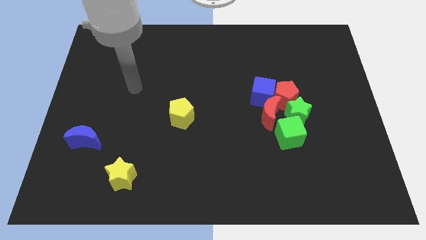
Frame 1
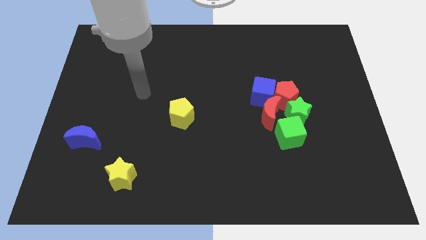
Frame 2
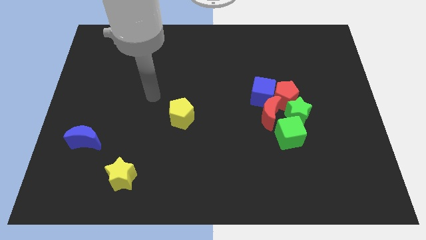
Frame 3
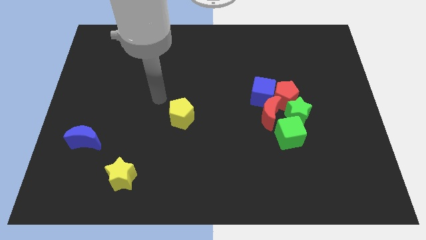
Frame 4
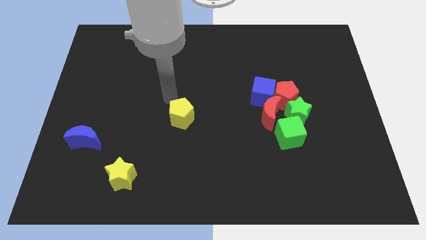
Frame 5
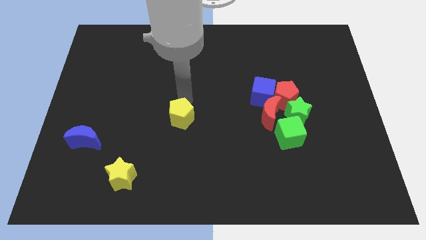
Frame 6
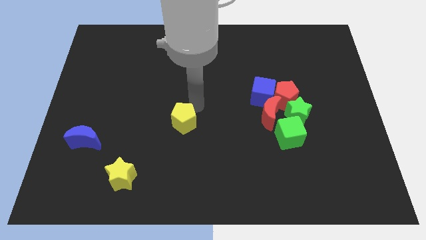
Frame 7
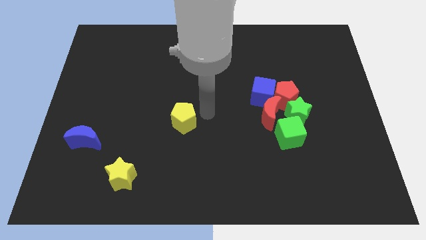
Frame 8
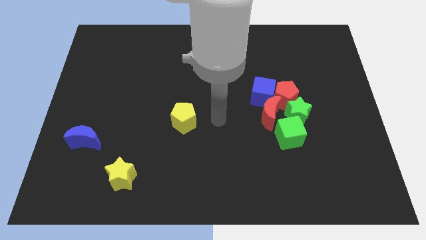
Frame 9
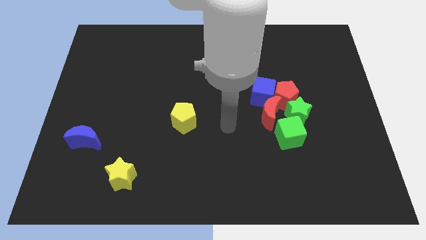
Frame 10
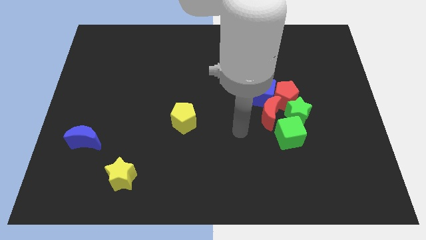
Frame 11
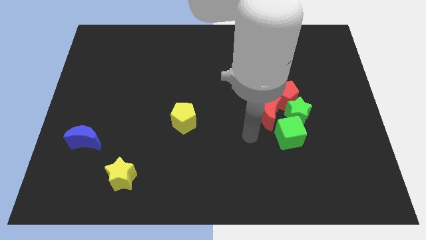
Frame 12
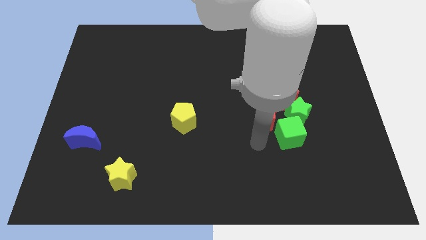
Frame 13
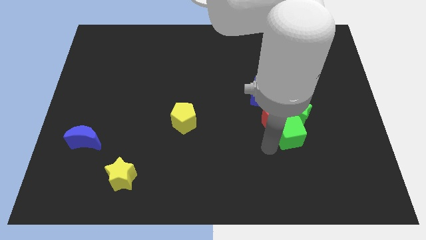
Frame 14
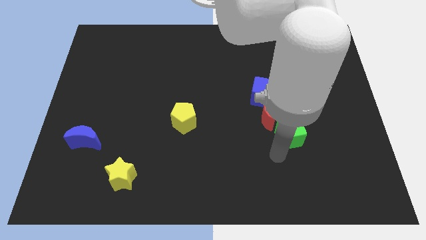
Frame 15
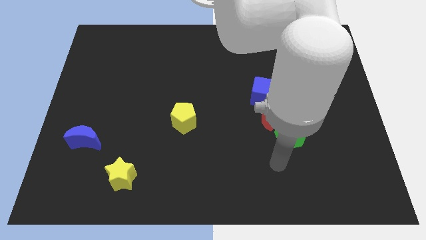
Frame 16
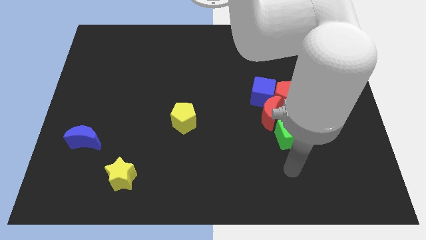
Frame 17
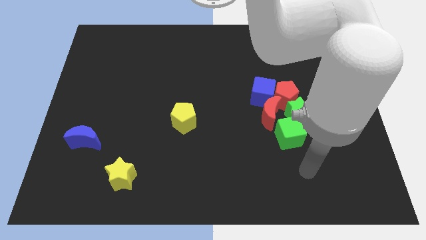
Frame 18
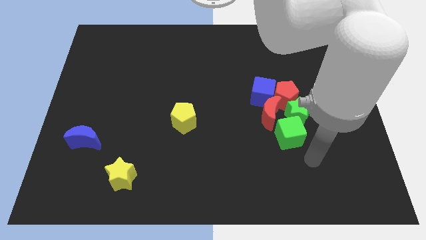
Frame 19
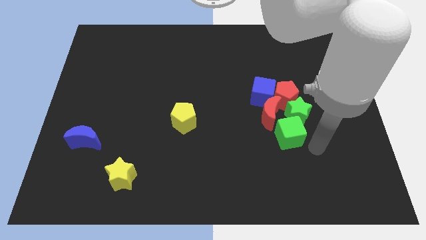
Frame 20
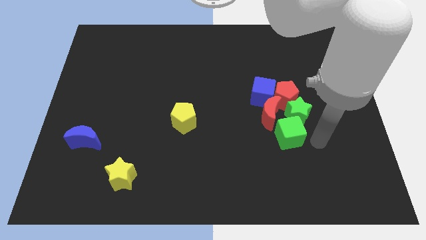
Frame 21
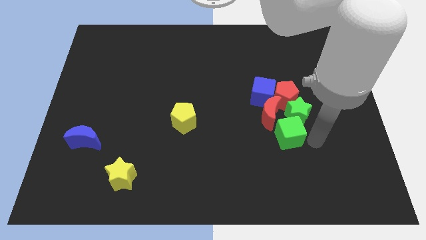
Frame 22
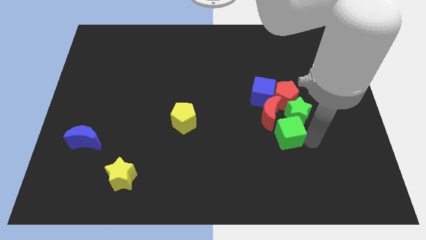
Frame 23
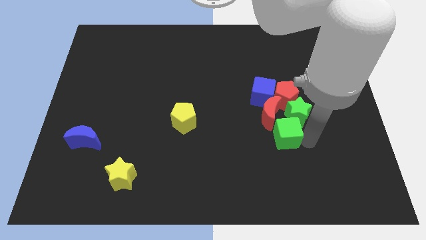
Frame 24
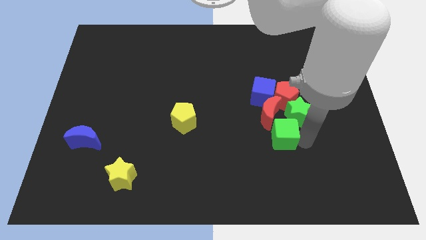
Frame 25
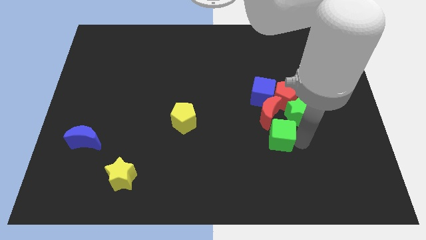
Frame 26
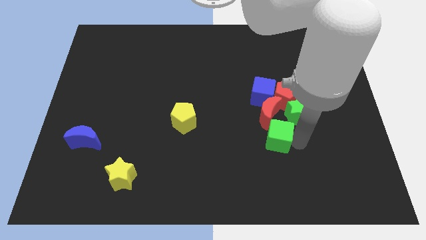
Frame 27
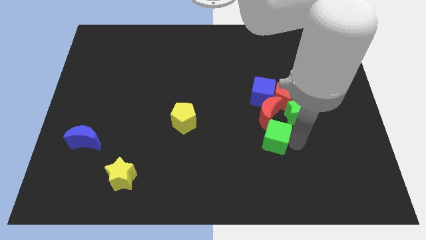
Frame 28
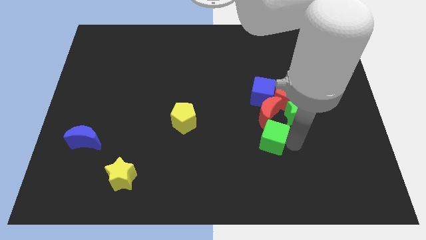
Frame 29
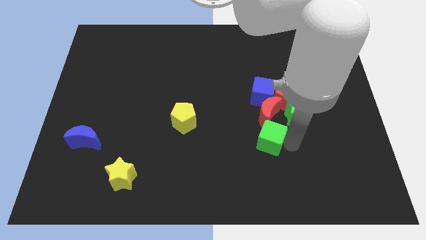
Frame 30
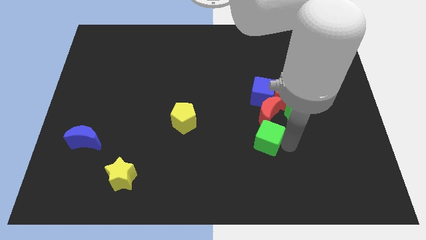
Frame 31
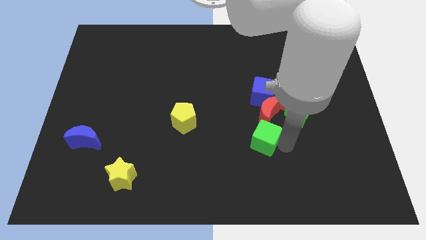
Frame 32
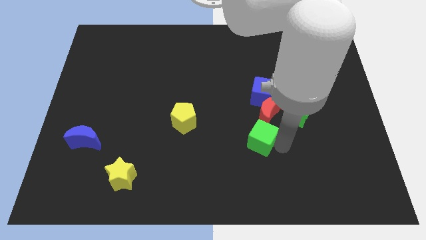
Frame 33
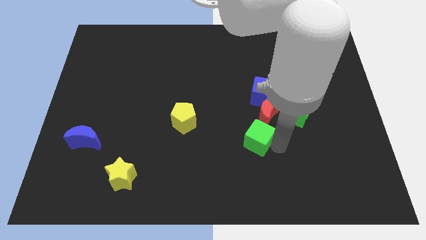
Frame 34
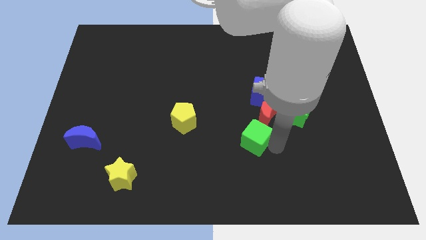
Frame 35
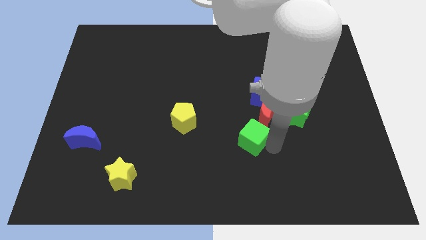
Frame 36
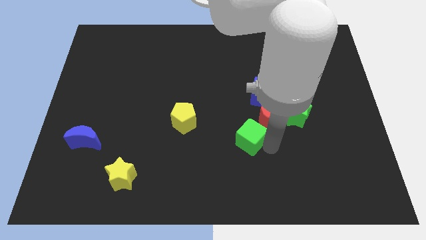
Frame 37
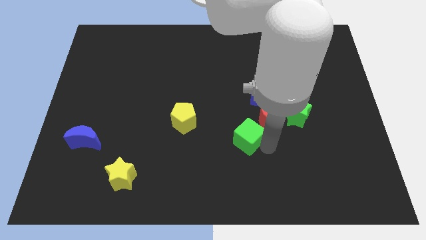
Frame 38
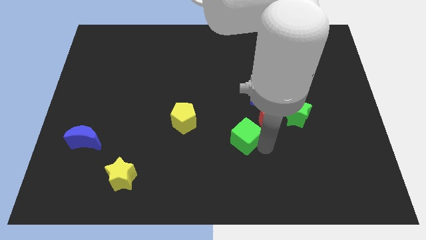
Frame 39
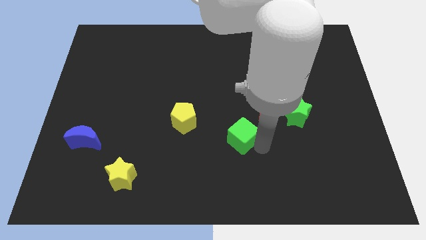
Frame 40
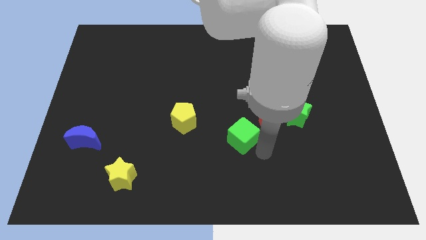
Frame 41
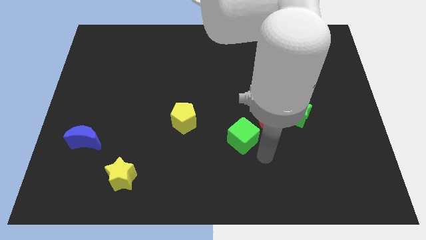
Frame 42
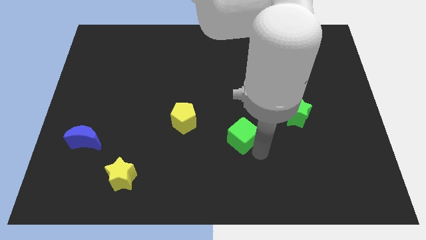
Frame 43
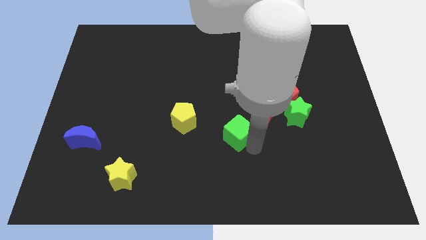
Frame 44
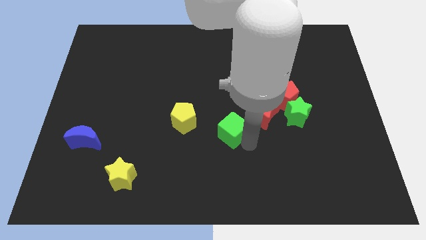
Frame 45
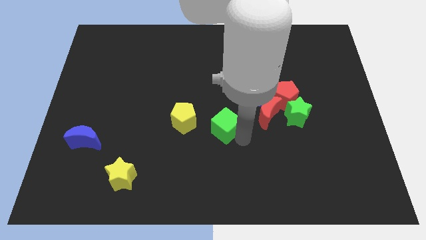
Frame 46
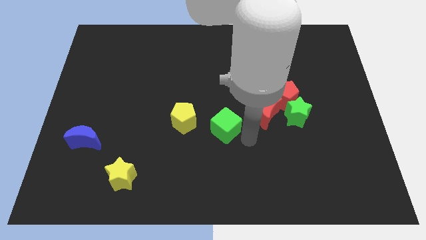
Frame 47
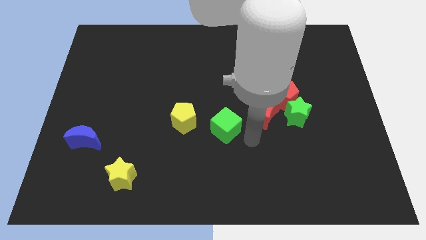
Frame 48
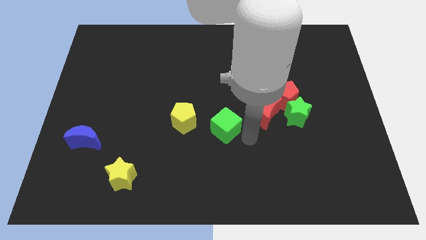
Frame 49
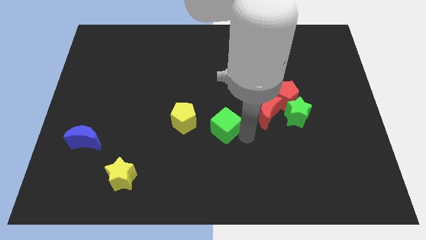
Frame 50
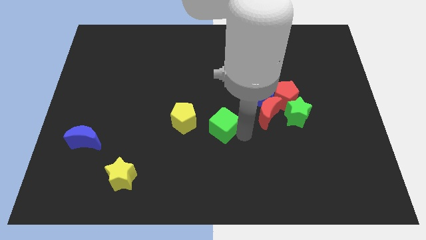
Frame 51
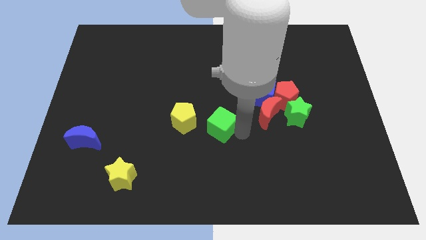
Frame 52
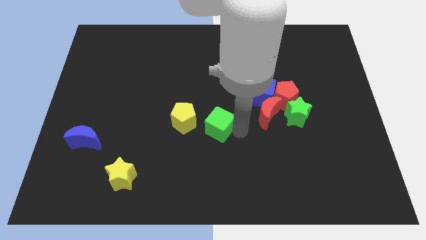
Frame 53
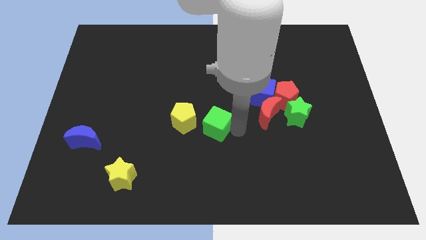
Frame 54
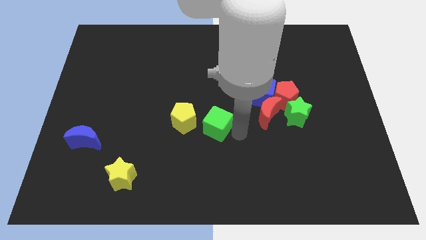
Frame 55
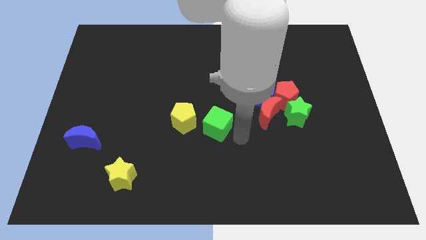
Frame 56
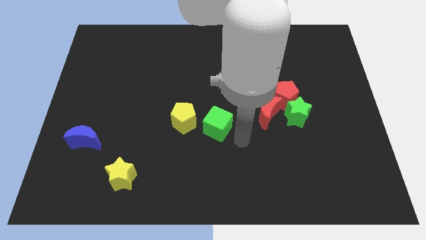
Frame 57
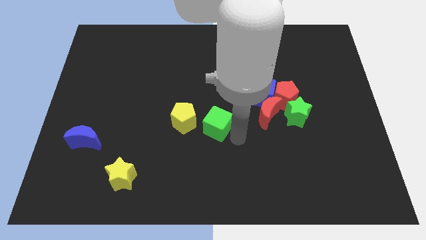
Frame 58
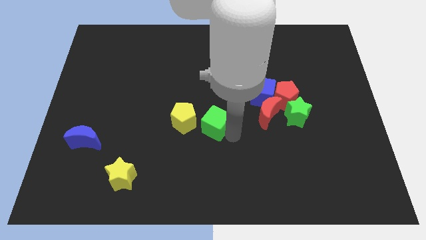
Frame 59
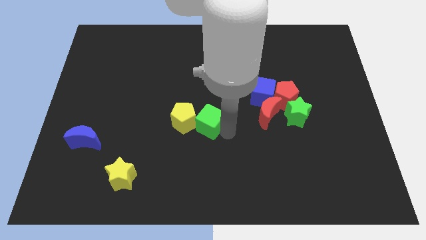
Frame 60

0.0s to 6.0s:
push the green cube towards the yellow pentagon

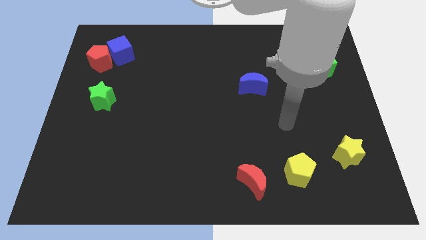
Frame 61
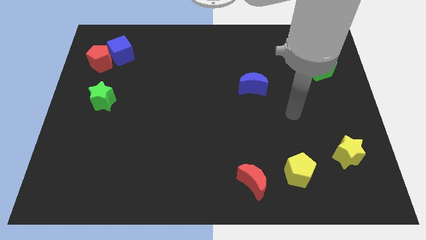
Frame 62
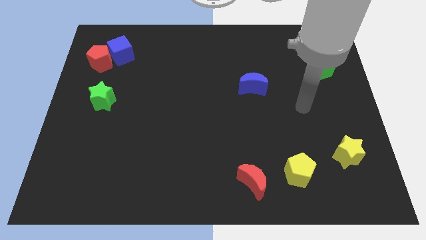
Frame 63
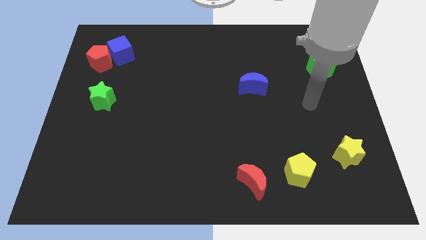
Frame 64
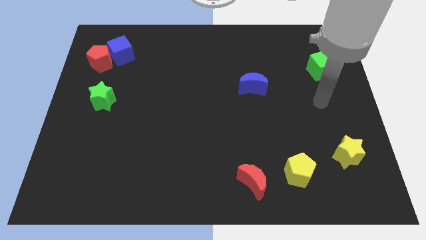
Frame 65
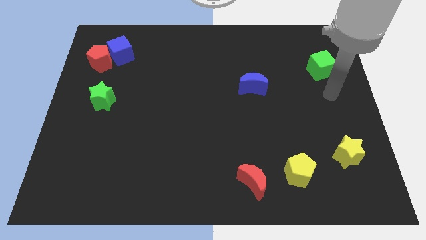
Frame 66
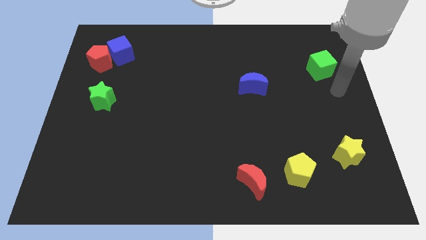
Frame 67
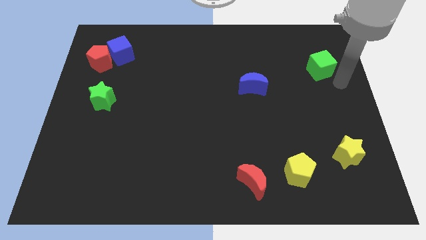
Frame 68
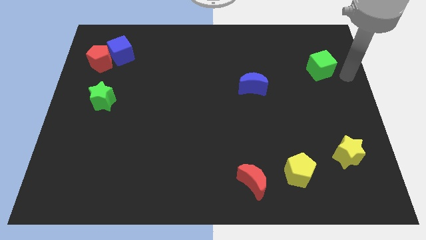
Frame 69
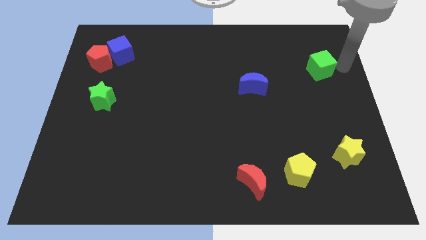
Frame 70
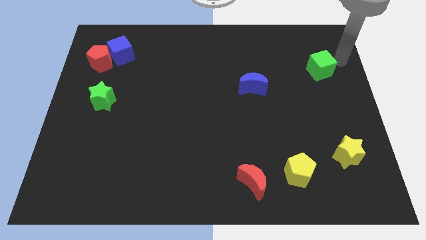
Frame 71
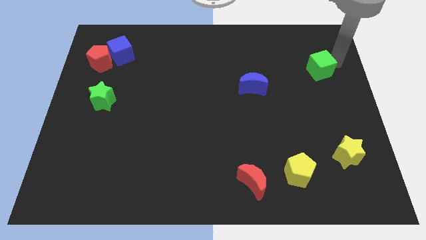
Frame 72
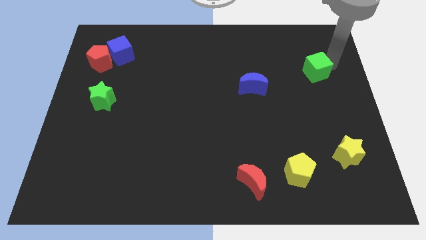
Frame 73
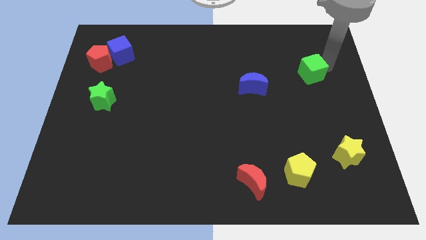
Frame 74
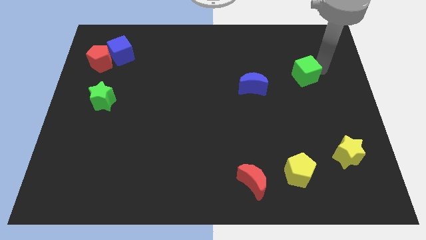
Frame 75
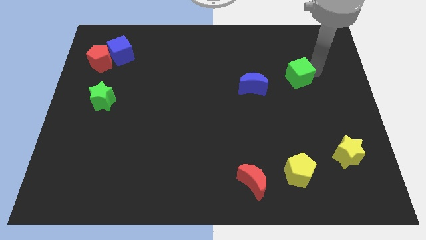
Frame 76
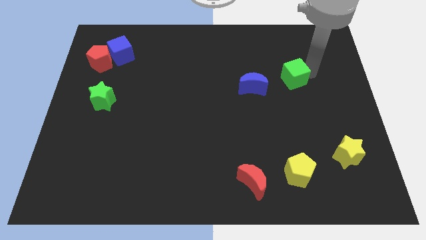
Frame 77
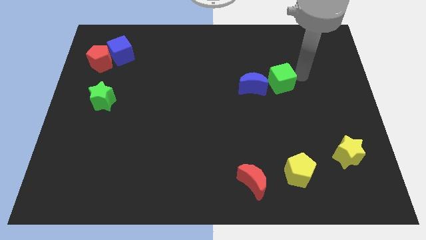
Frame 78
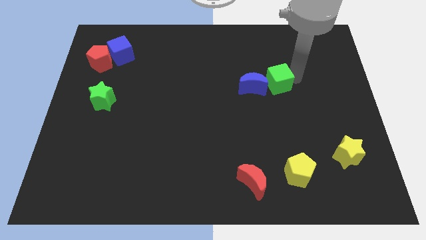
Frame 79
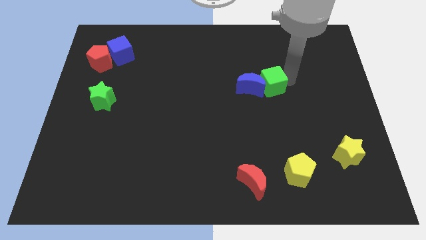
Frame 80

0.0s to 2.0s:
slide the green cube close to the blue moon

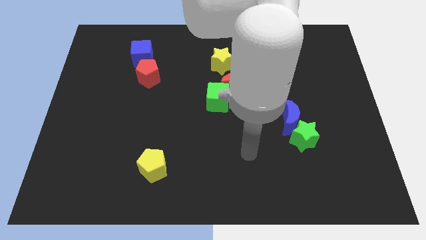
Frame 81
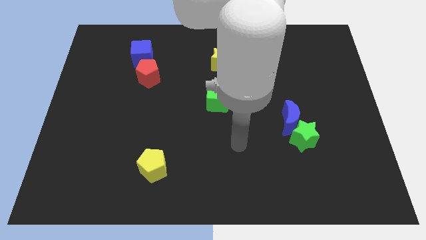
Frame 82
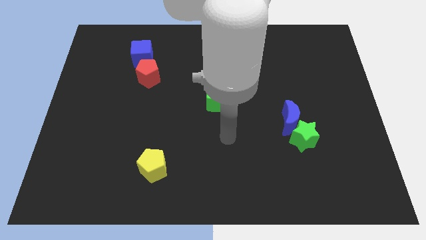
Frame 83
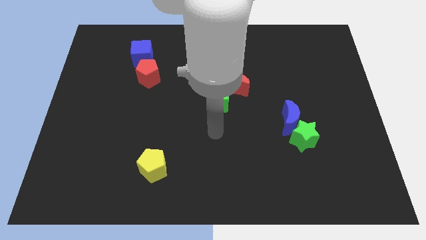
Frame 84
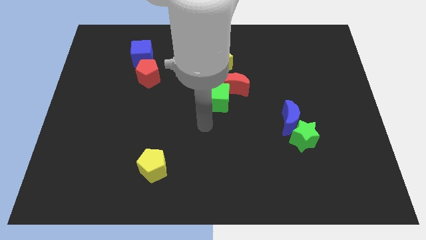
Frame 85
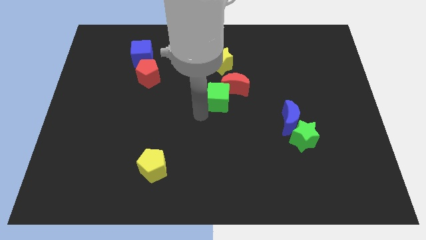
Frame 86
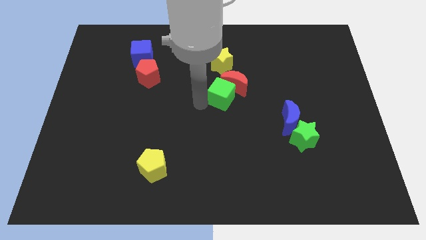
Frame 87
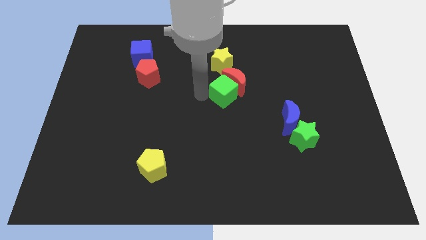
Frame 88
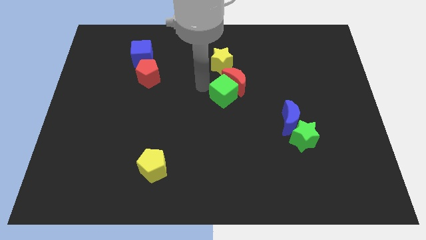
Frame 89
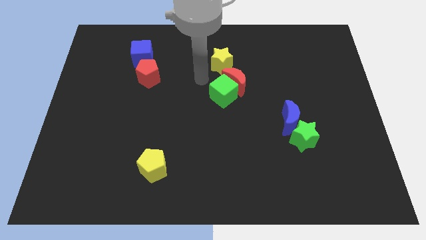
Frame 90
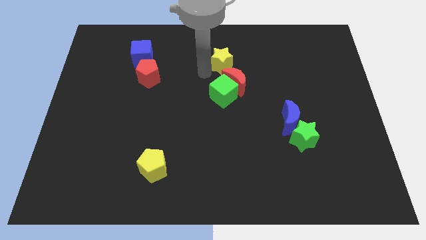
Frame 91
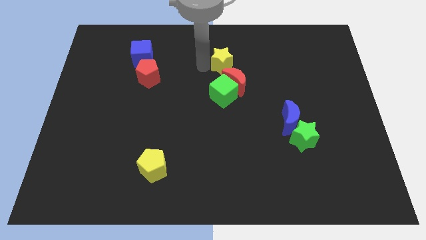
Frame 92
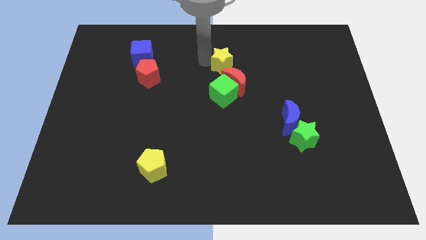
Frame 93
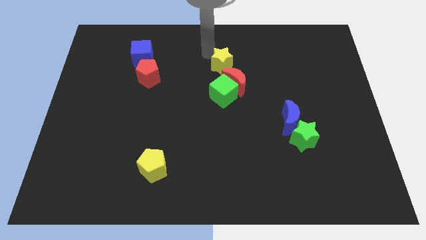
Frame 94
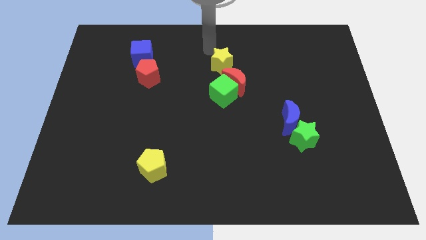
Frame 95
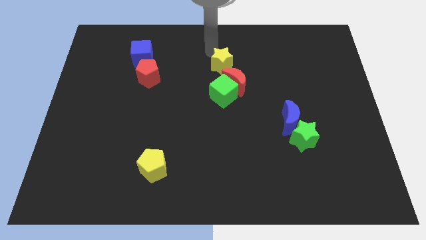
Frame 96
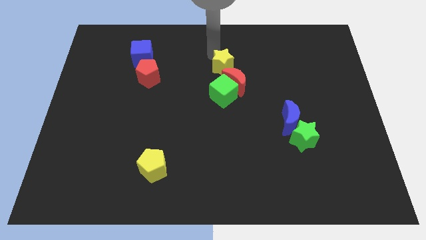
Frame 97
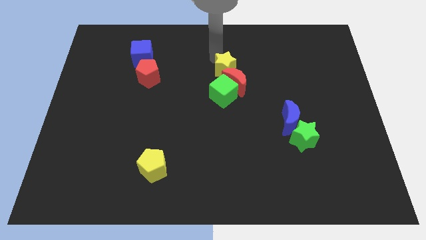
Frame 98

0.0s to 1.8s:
move the yellow star to the red moon
